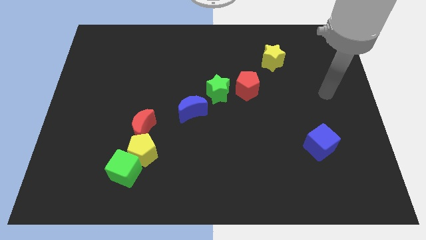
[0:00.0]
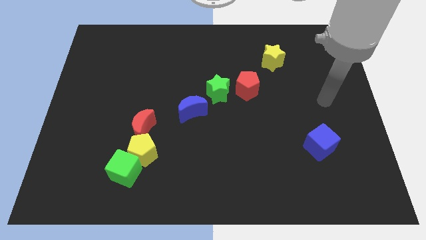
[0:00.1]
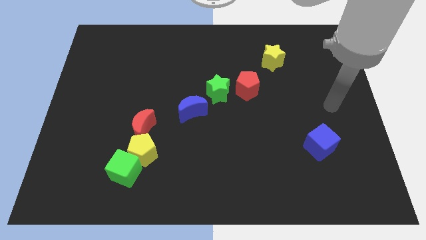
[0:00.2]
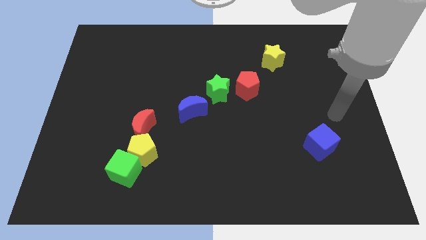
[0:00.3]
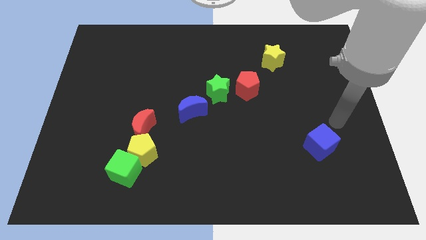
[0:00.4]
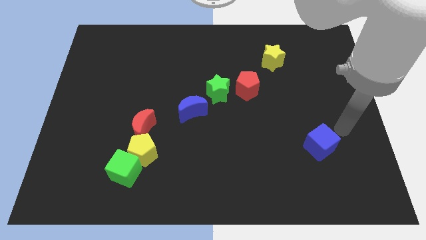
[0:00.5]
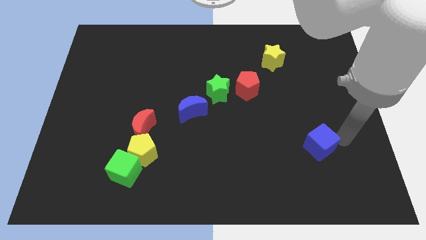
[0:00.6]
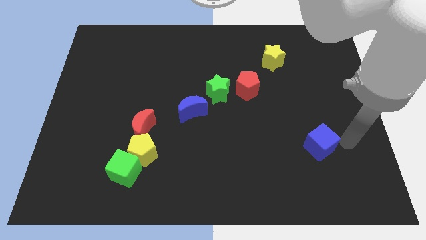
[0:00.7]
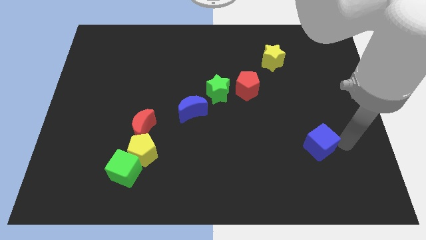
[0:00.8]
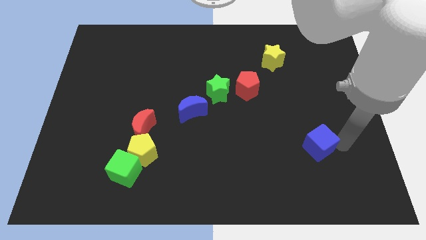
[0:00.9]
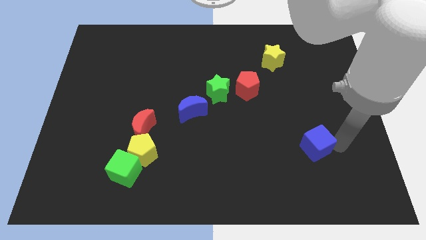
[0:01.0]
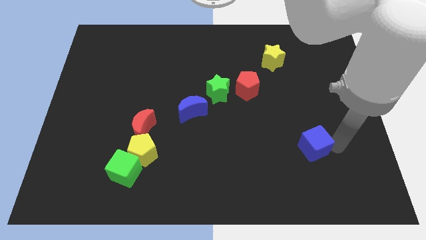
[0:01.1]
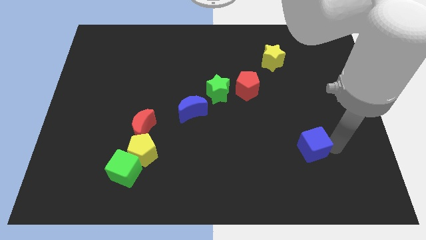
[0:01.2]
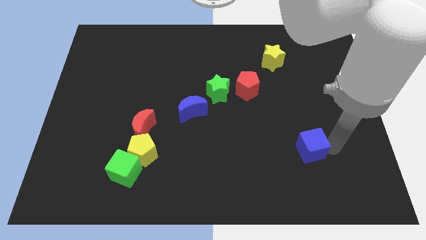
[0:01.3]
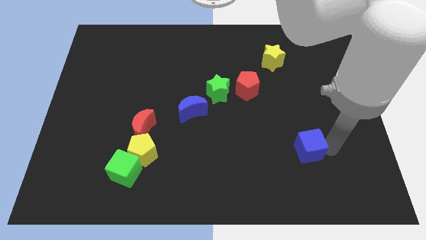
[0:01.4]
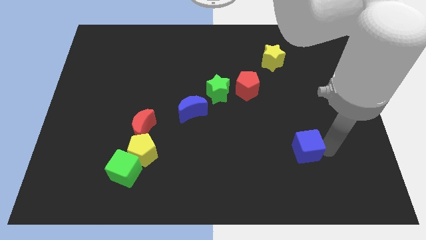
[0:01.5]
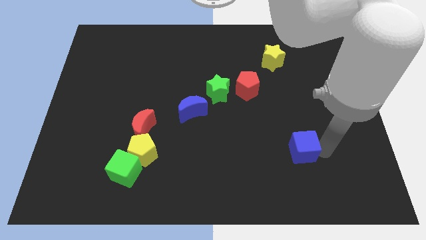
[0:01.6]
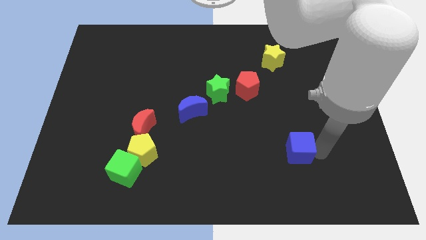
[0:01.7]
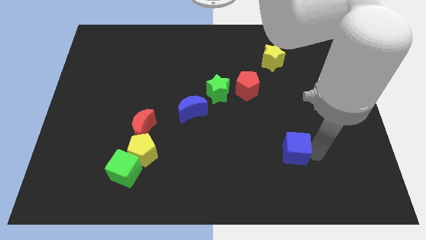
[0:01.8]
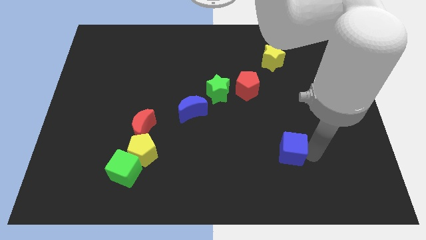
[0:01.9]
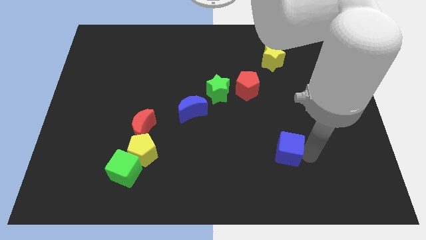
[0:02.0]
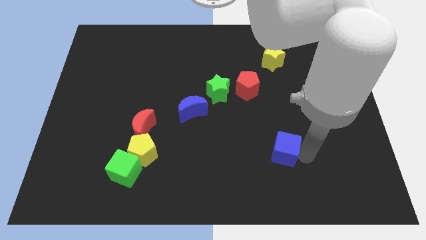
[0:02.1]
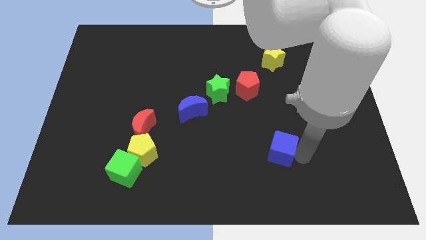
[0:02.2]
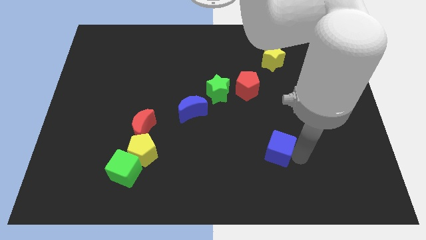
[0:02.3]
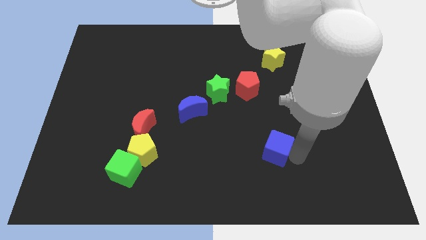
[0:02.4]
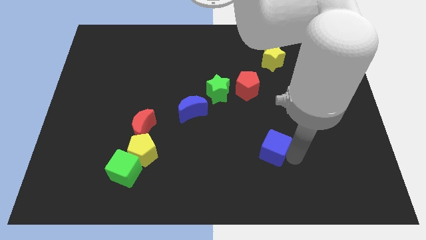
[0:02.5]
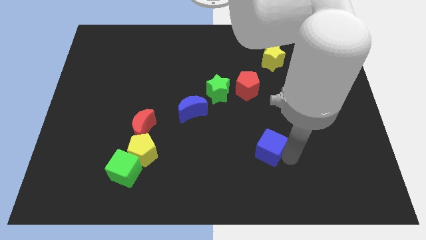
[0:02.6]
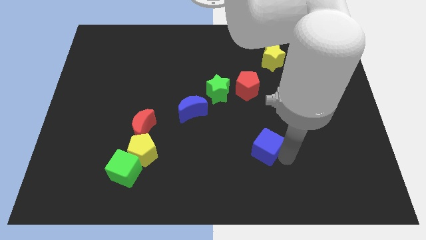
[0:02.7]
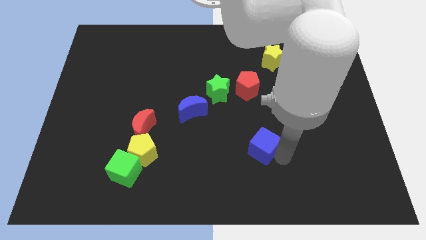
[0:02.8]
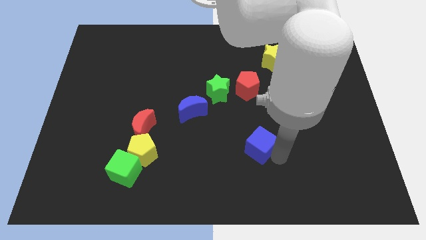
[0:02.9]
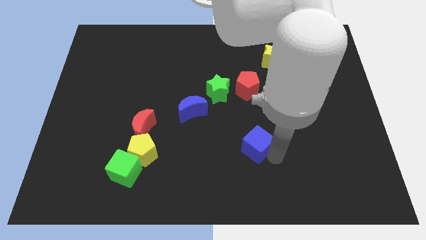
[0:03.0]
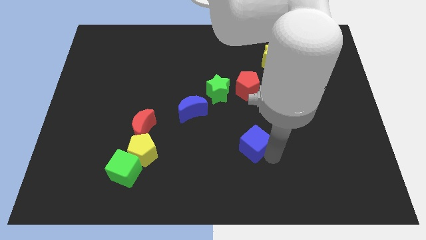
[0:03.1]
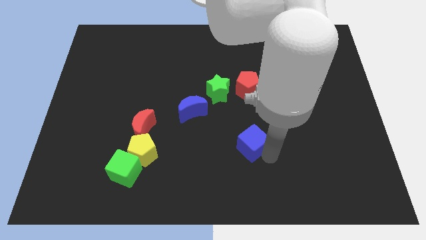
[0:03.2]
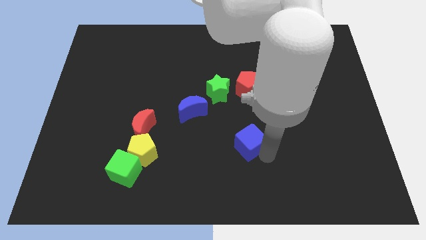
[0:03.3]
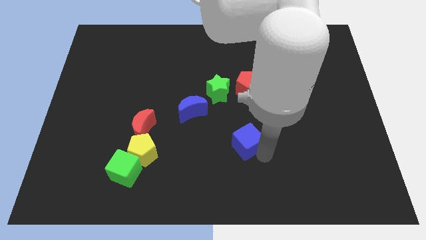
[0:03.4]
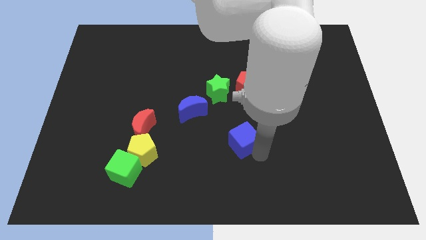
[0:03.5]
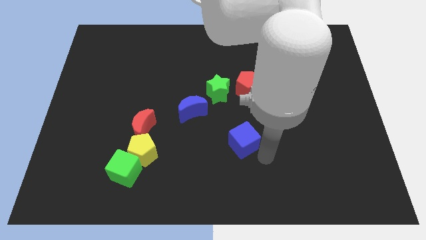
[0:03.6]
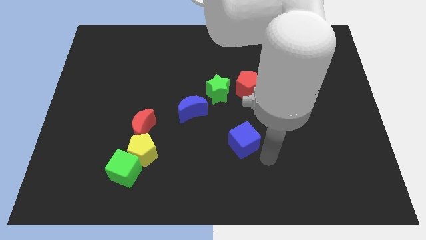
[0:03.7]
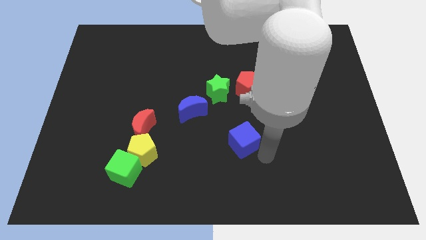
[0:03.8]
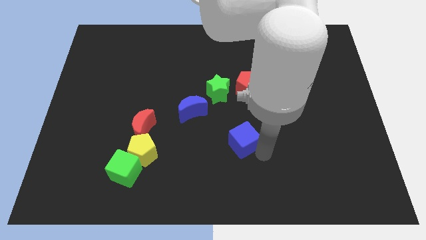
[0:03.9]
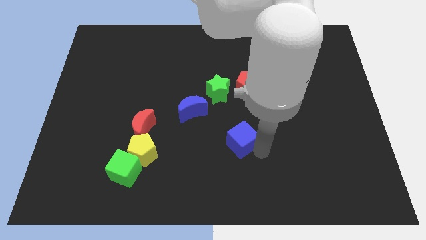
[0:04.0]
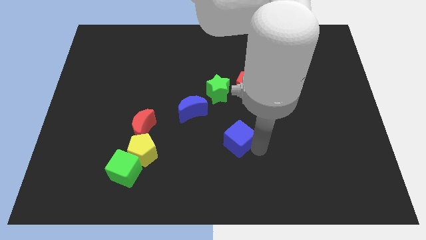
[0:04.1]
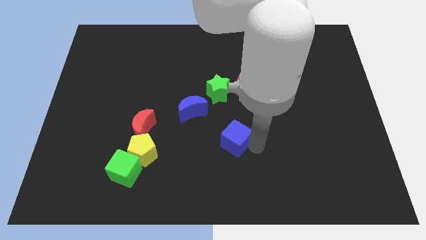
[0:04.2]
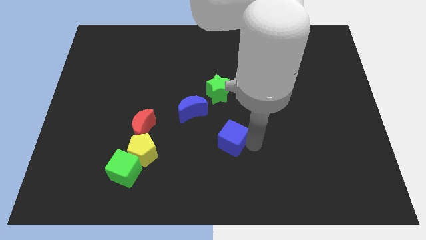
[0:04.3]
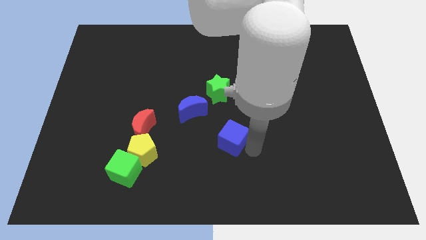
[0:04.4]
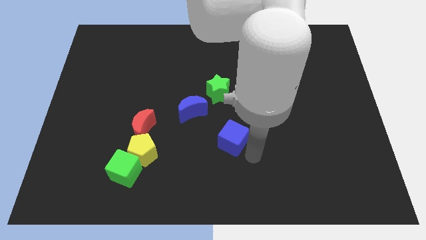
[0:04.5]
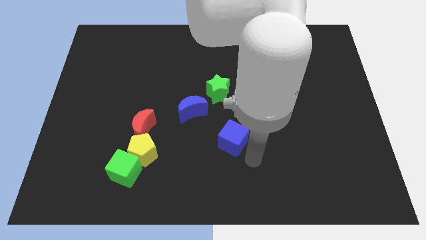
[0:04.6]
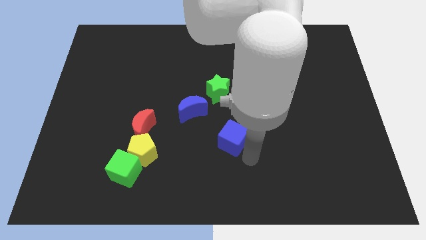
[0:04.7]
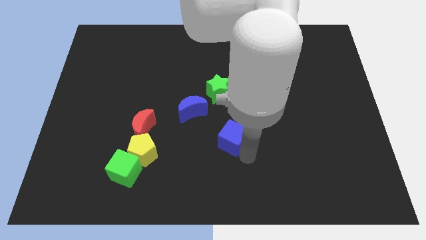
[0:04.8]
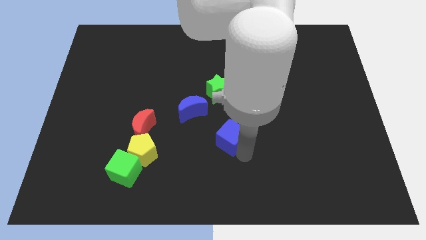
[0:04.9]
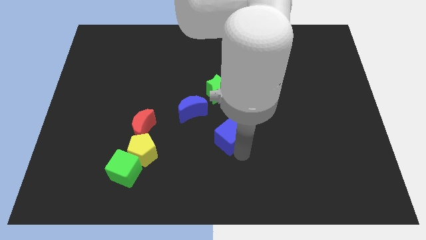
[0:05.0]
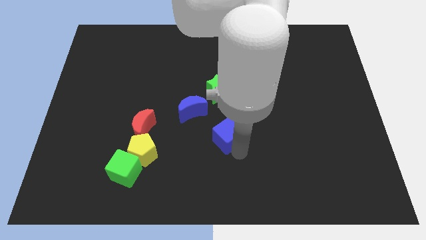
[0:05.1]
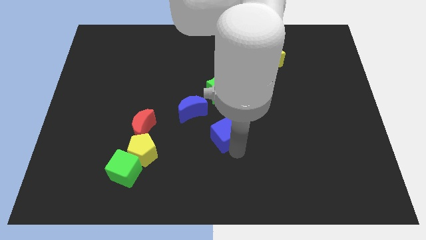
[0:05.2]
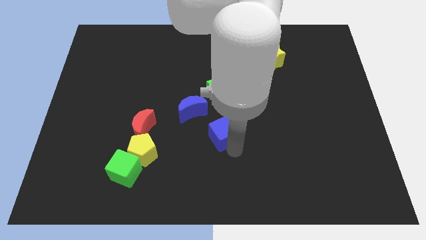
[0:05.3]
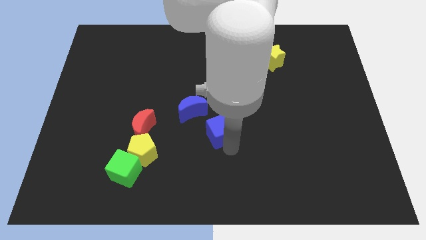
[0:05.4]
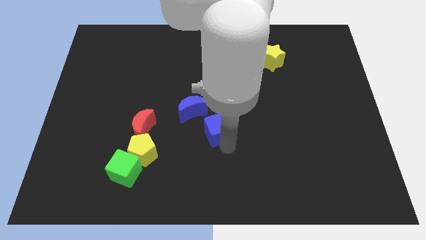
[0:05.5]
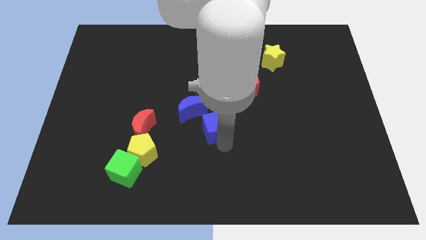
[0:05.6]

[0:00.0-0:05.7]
push the blue cube right of the red moon

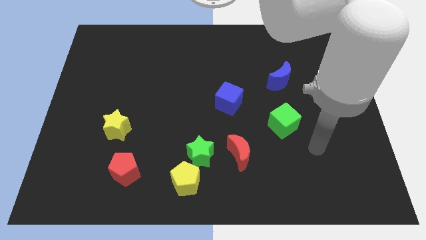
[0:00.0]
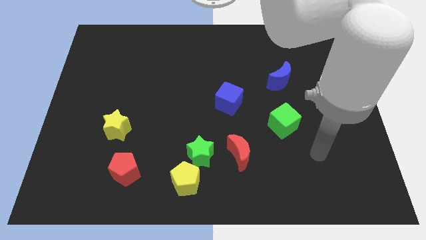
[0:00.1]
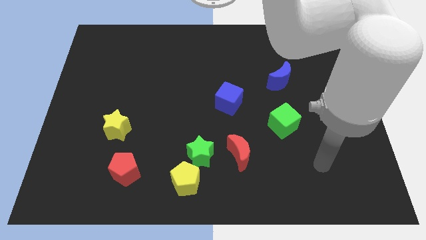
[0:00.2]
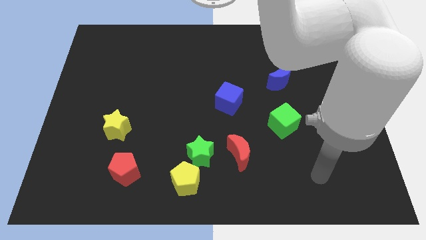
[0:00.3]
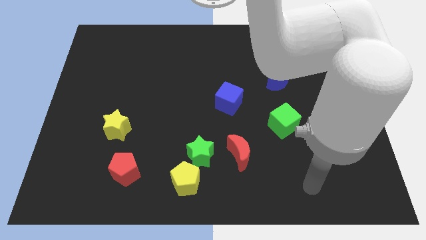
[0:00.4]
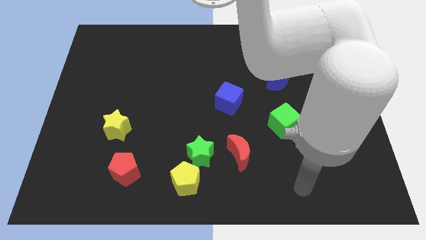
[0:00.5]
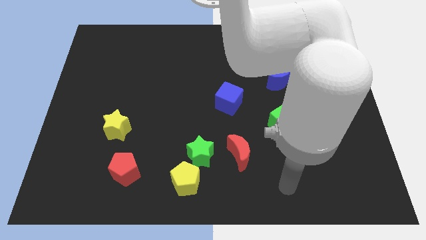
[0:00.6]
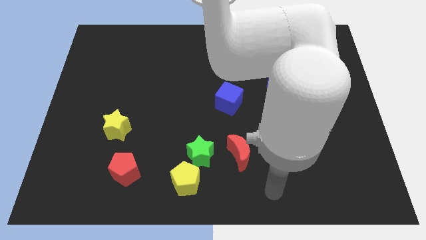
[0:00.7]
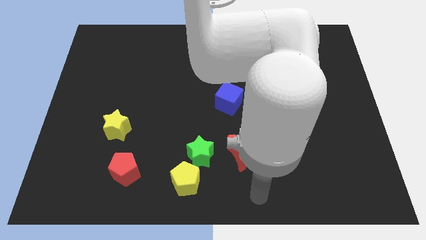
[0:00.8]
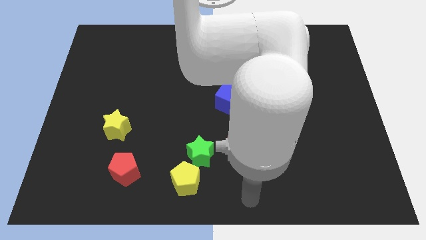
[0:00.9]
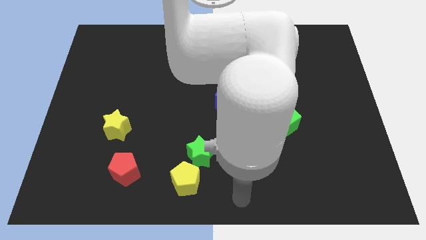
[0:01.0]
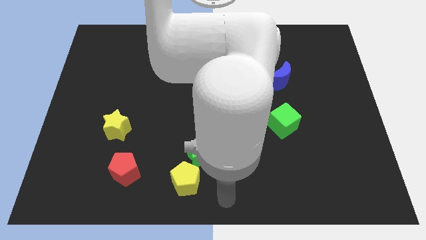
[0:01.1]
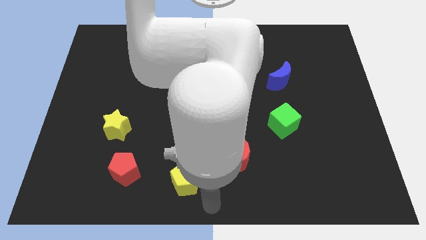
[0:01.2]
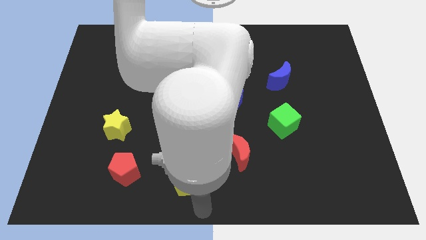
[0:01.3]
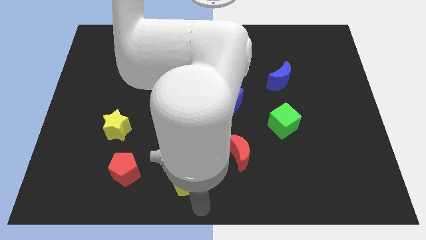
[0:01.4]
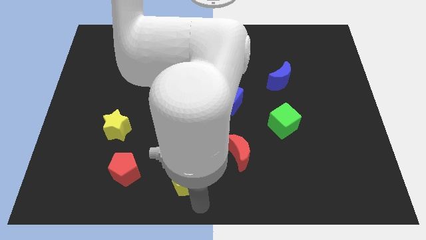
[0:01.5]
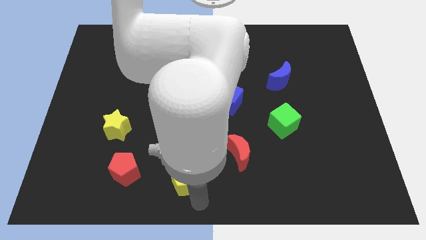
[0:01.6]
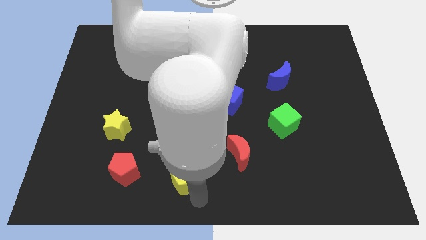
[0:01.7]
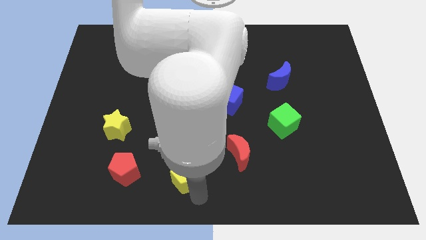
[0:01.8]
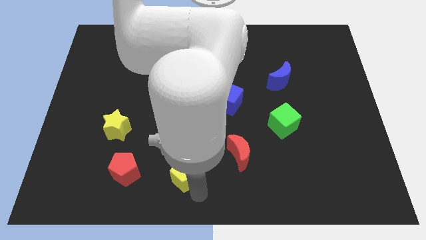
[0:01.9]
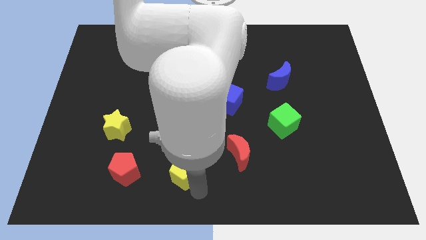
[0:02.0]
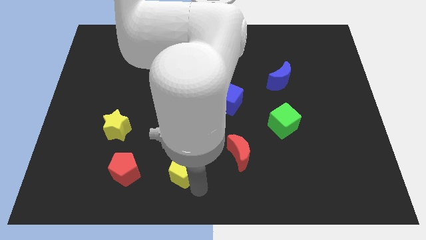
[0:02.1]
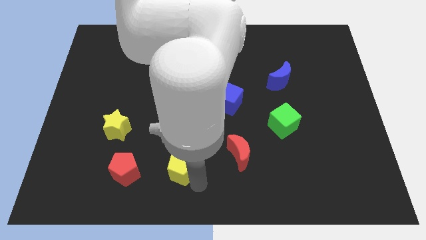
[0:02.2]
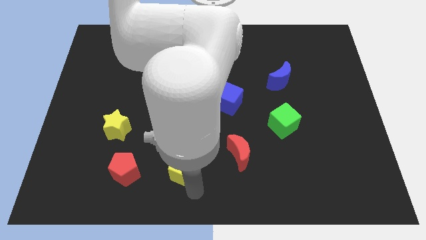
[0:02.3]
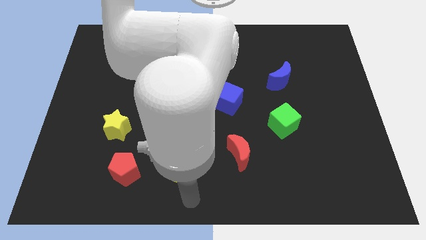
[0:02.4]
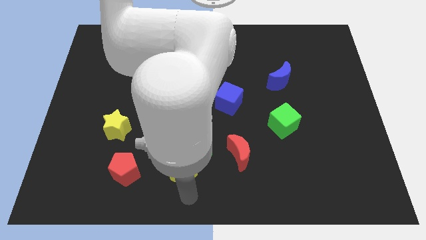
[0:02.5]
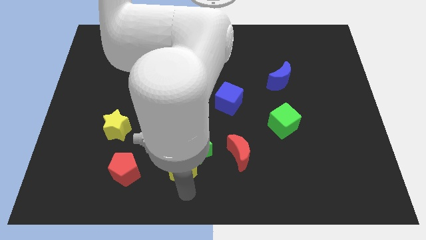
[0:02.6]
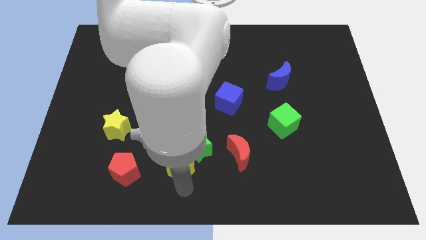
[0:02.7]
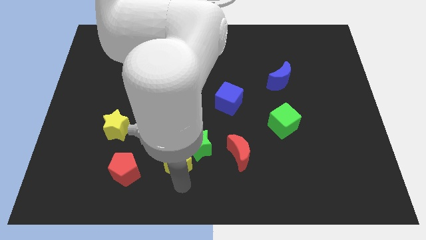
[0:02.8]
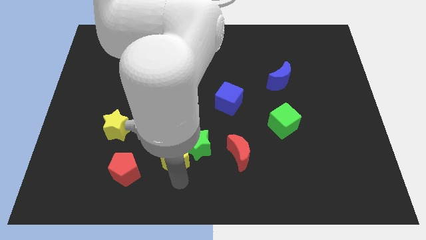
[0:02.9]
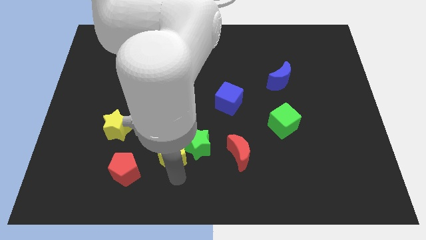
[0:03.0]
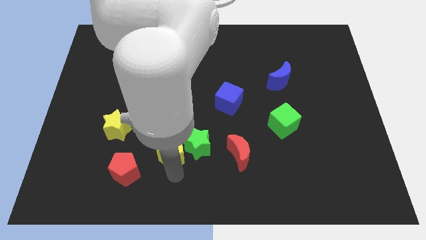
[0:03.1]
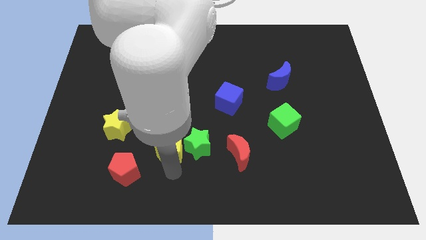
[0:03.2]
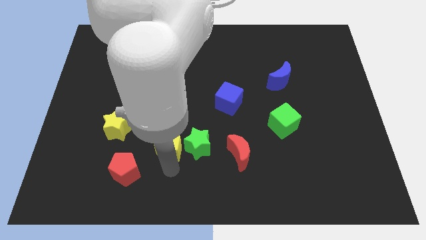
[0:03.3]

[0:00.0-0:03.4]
put the yellow pentagon to the top left side of the green star
